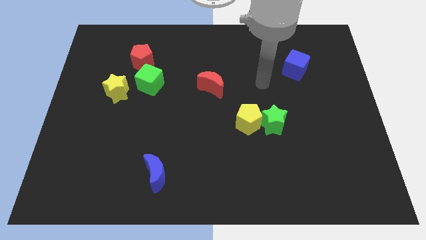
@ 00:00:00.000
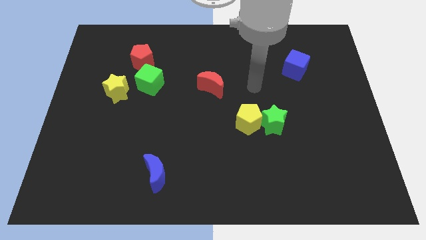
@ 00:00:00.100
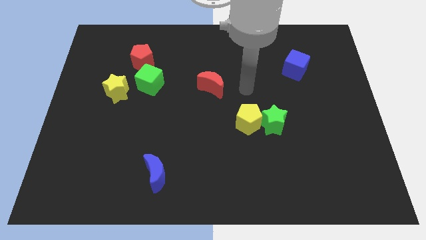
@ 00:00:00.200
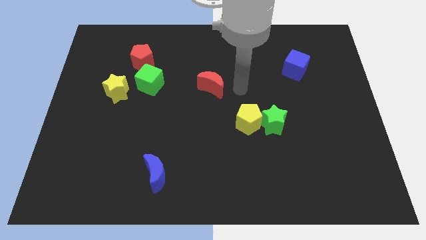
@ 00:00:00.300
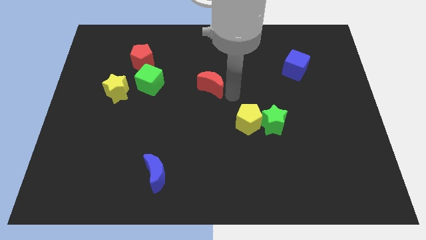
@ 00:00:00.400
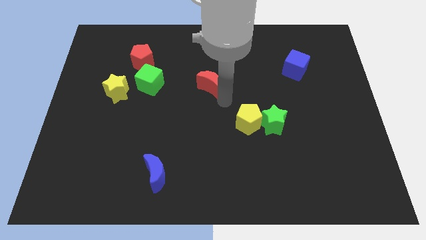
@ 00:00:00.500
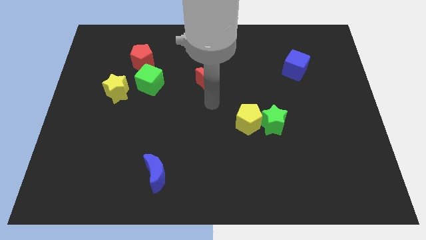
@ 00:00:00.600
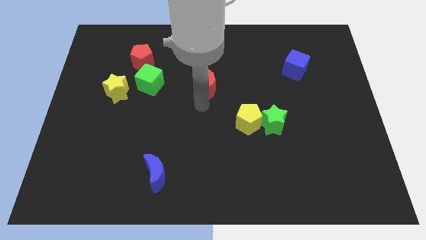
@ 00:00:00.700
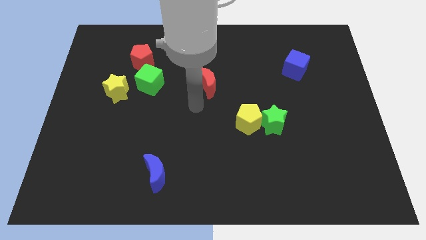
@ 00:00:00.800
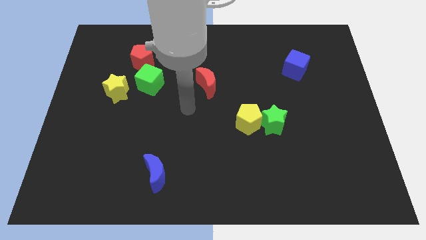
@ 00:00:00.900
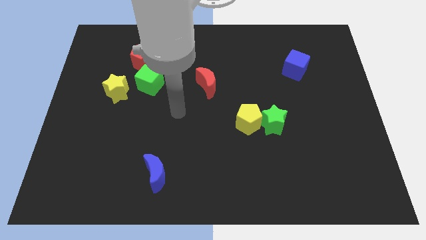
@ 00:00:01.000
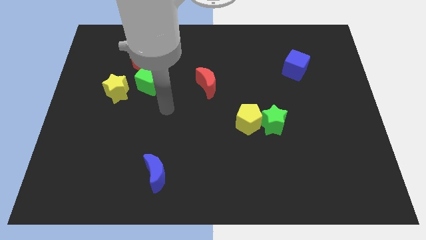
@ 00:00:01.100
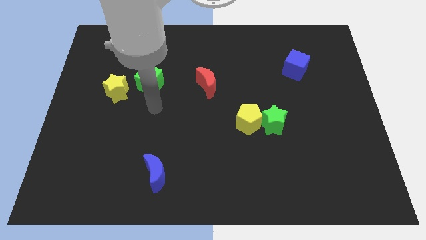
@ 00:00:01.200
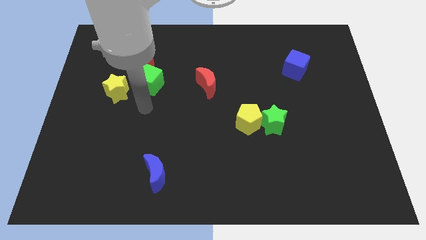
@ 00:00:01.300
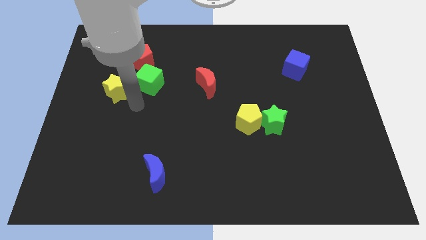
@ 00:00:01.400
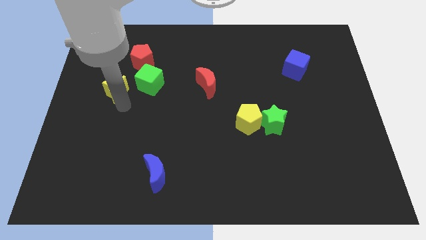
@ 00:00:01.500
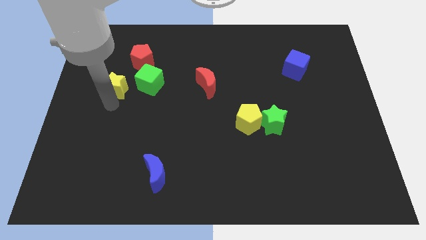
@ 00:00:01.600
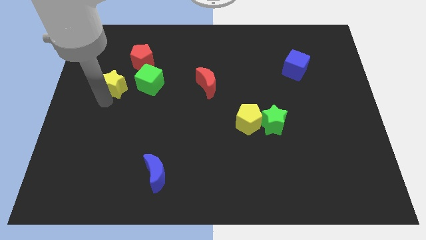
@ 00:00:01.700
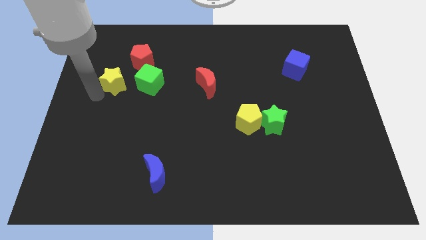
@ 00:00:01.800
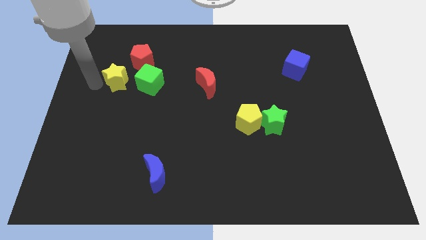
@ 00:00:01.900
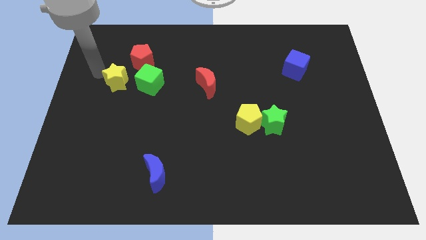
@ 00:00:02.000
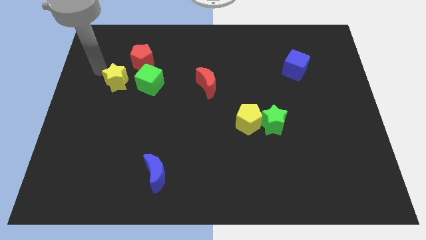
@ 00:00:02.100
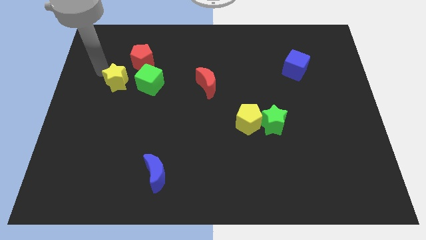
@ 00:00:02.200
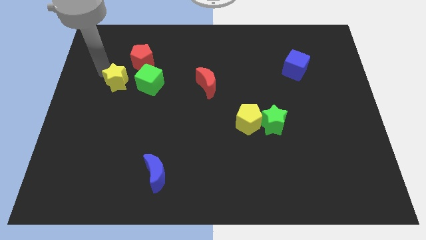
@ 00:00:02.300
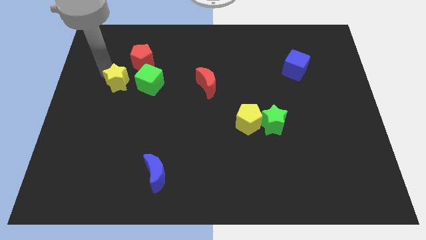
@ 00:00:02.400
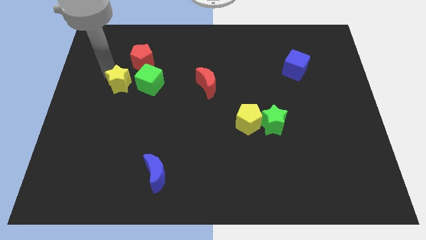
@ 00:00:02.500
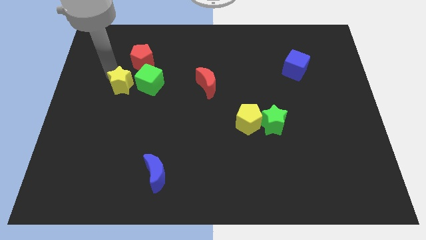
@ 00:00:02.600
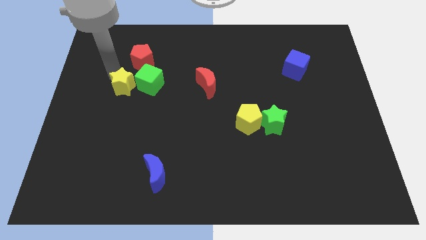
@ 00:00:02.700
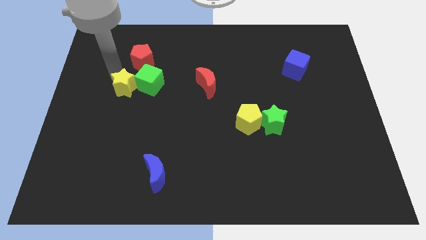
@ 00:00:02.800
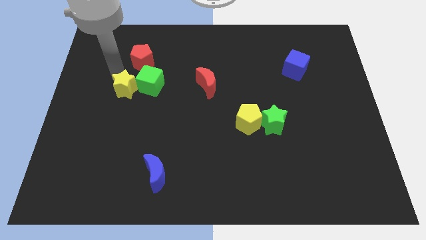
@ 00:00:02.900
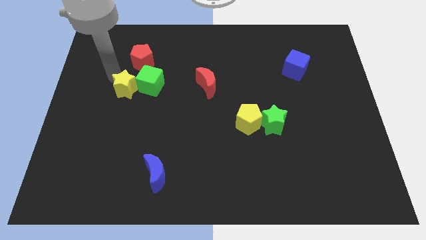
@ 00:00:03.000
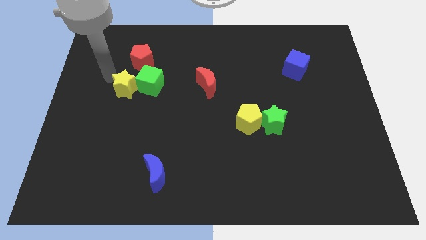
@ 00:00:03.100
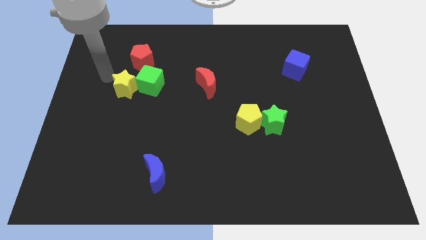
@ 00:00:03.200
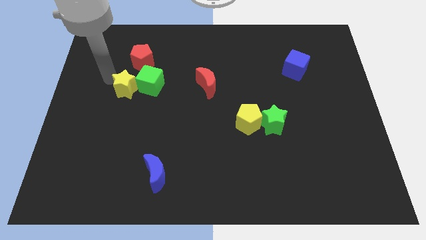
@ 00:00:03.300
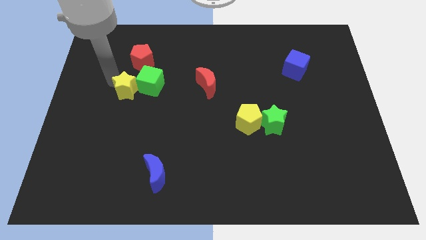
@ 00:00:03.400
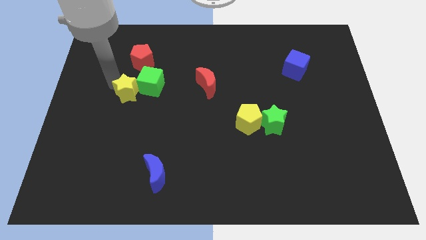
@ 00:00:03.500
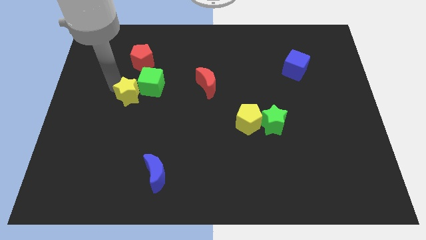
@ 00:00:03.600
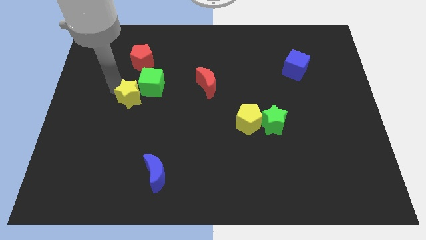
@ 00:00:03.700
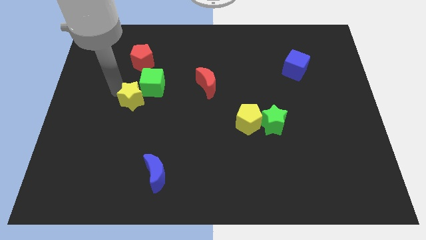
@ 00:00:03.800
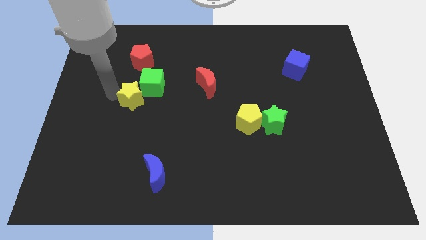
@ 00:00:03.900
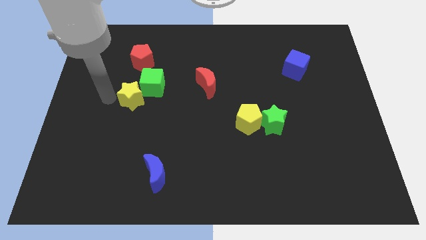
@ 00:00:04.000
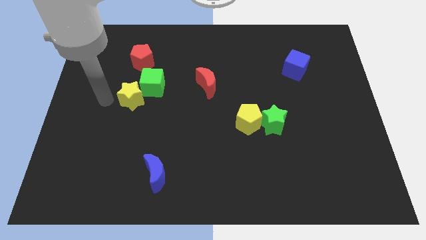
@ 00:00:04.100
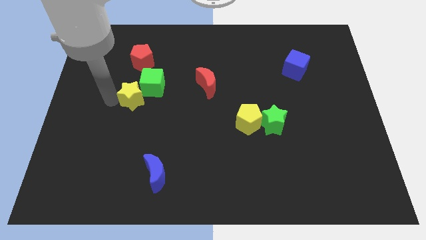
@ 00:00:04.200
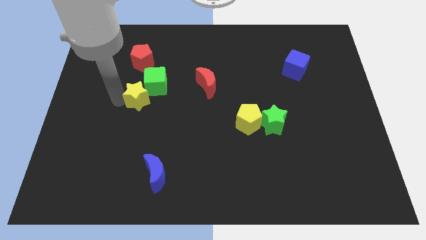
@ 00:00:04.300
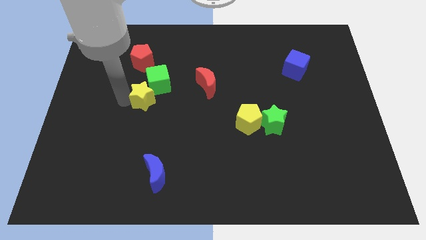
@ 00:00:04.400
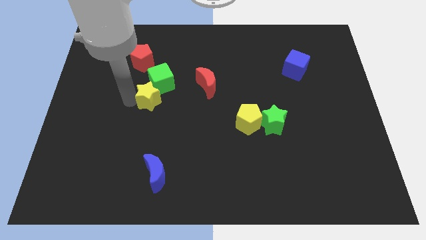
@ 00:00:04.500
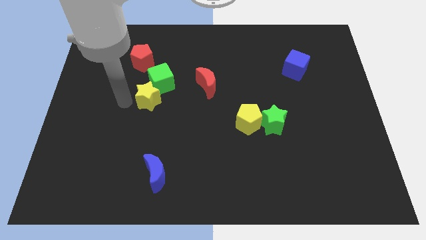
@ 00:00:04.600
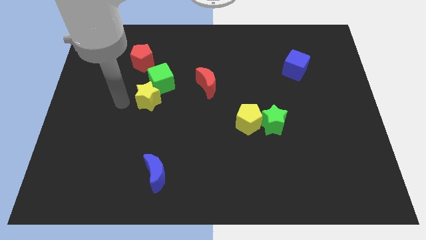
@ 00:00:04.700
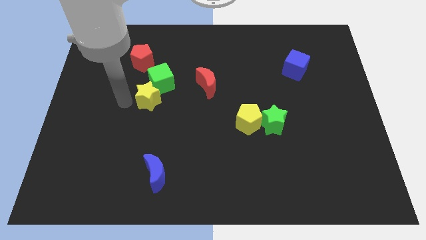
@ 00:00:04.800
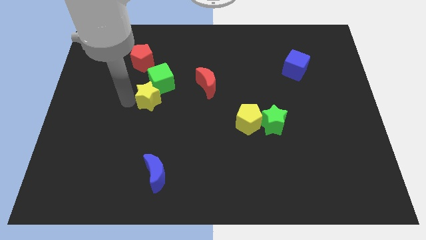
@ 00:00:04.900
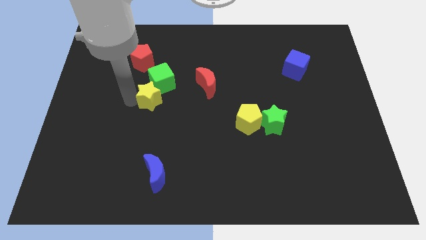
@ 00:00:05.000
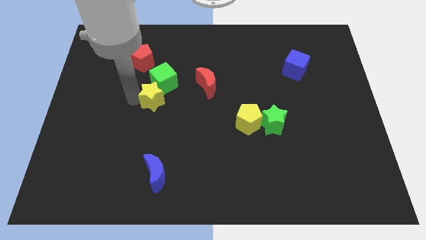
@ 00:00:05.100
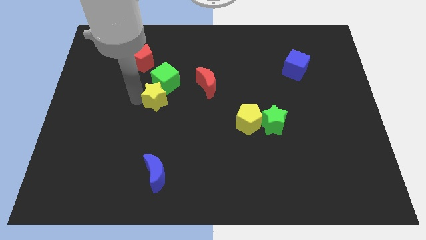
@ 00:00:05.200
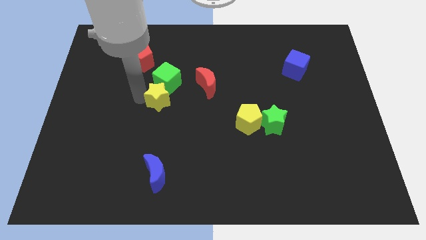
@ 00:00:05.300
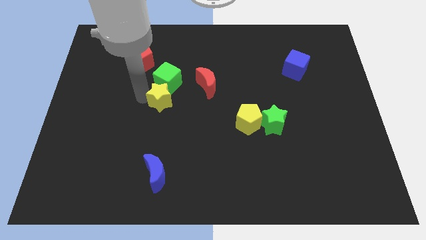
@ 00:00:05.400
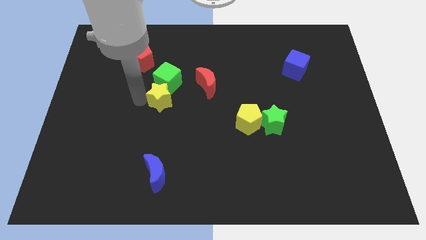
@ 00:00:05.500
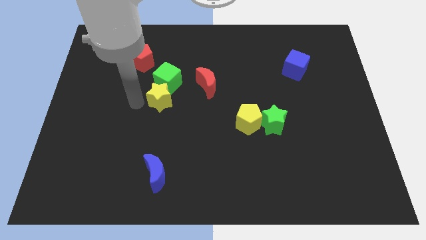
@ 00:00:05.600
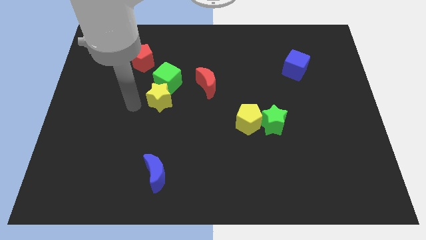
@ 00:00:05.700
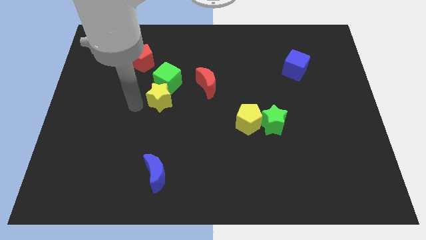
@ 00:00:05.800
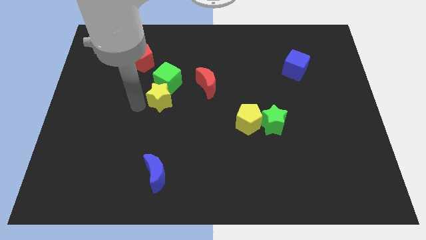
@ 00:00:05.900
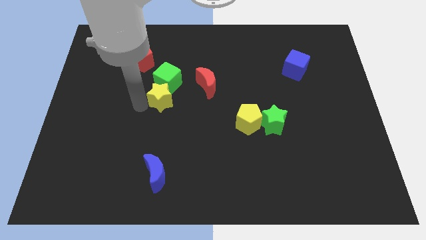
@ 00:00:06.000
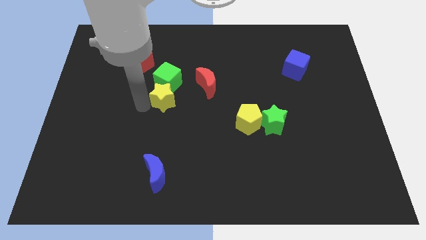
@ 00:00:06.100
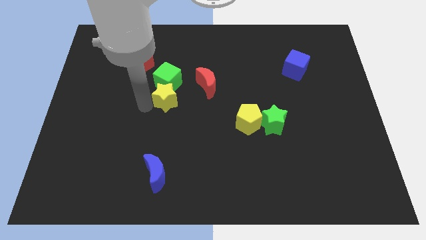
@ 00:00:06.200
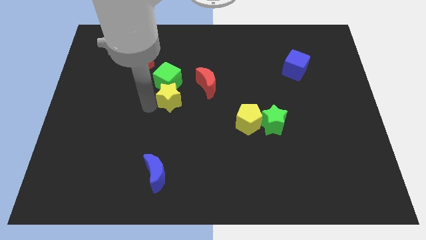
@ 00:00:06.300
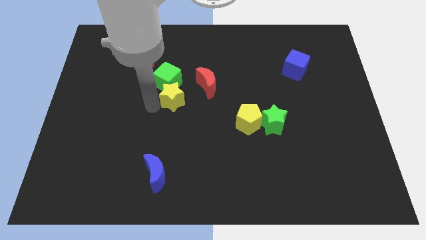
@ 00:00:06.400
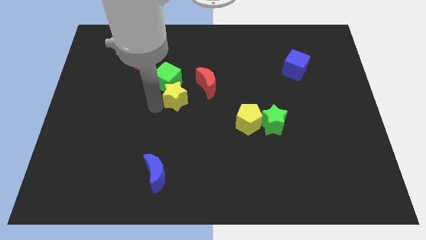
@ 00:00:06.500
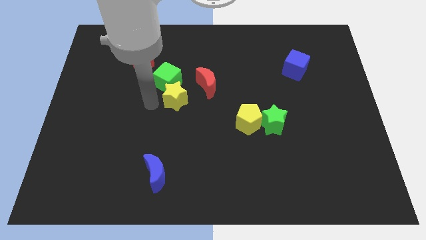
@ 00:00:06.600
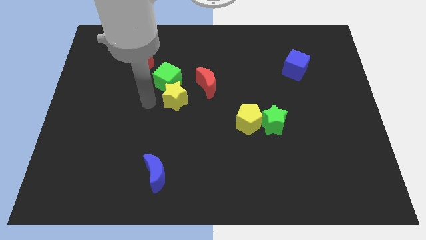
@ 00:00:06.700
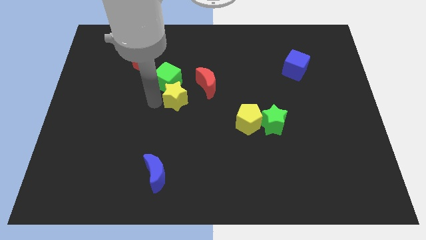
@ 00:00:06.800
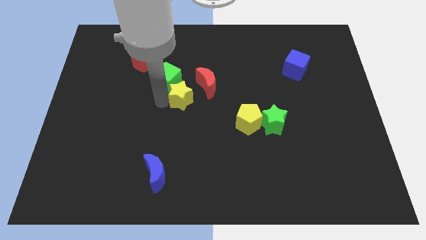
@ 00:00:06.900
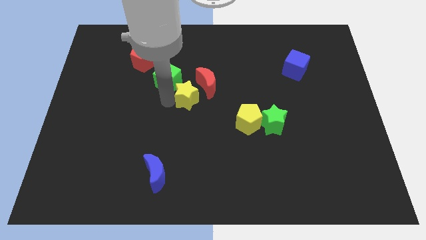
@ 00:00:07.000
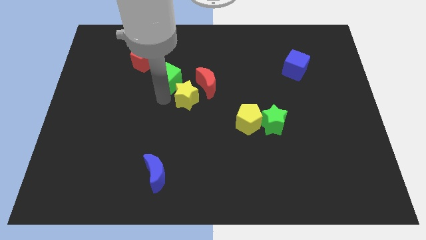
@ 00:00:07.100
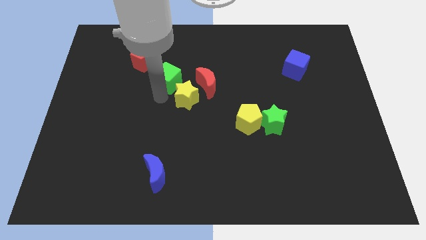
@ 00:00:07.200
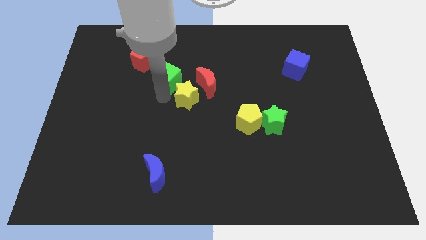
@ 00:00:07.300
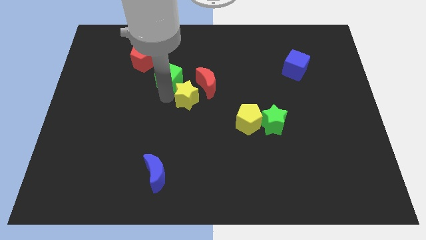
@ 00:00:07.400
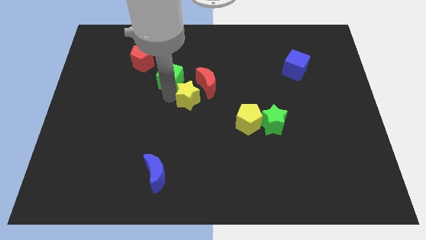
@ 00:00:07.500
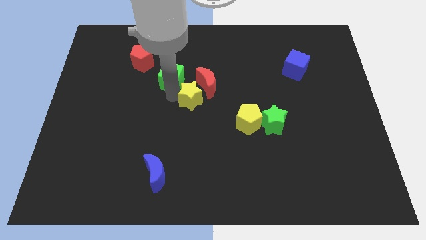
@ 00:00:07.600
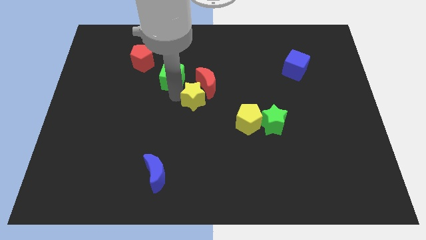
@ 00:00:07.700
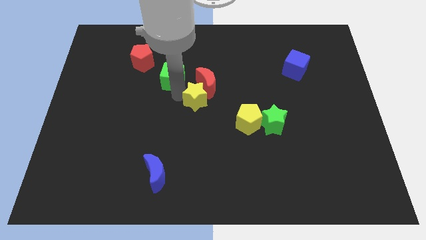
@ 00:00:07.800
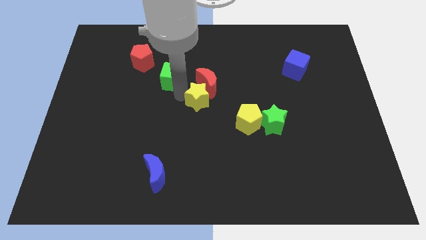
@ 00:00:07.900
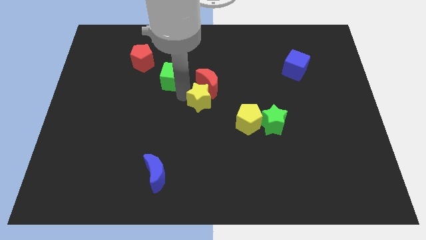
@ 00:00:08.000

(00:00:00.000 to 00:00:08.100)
push the yellow star to the right

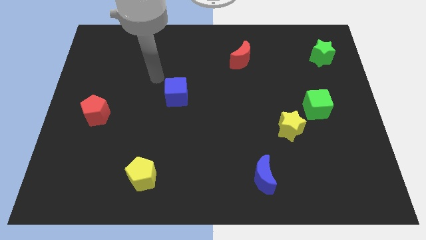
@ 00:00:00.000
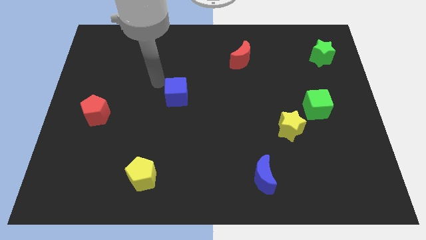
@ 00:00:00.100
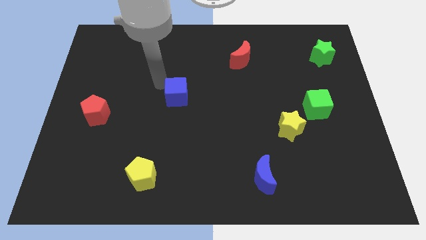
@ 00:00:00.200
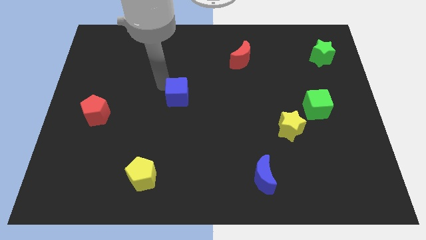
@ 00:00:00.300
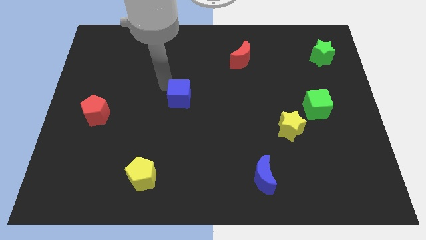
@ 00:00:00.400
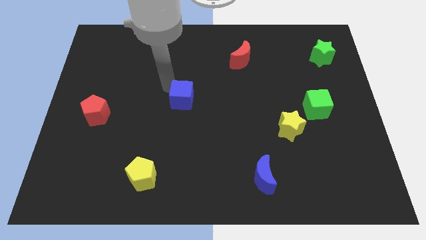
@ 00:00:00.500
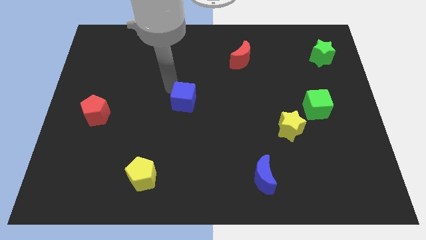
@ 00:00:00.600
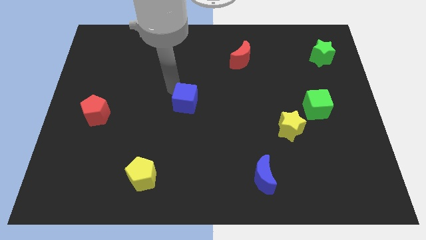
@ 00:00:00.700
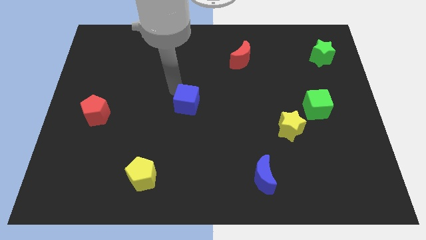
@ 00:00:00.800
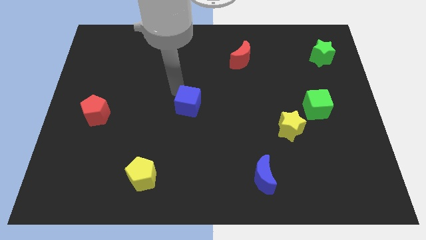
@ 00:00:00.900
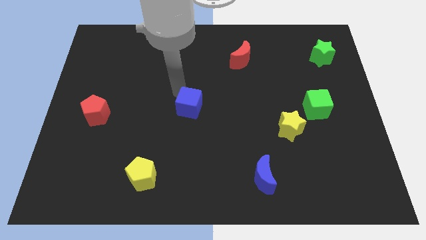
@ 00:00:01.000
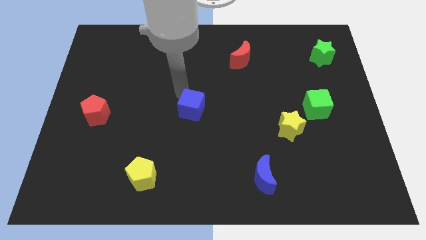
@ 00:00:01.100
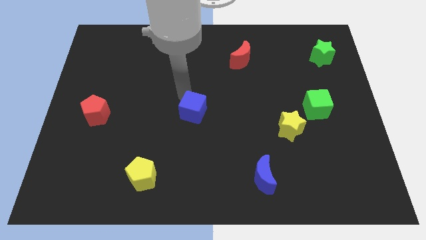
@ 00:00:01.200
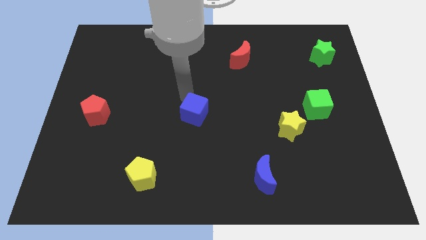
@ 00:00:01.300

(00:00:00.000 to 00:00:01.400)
push the blue cube a little down and to the right
